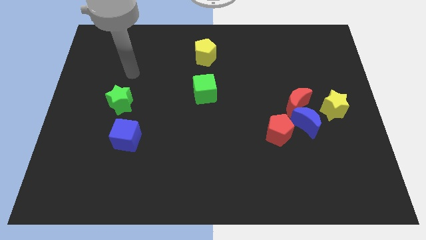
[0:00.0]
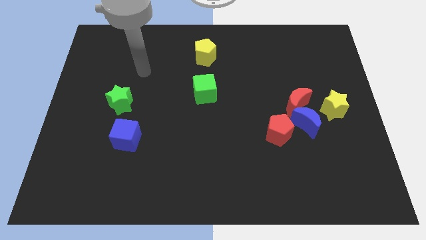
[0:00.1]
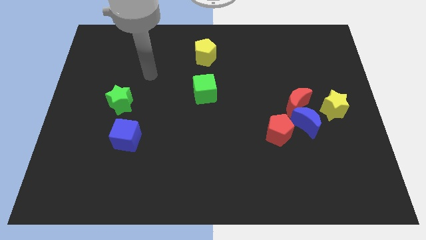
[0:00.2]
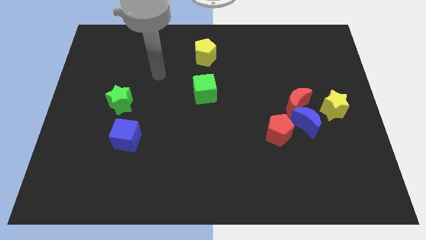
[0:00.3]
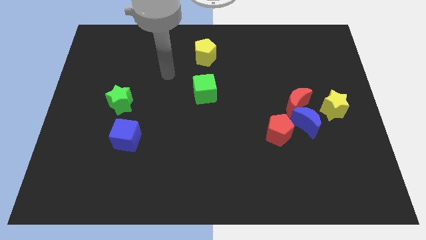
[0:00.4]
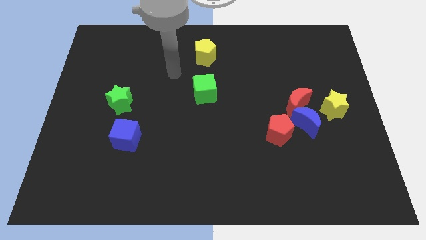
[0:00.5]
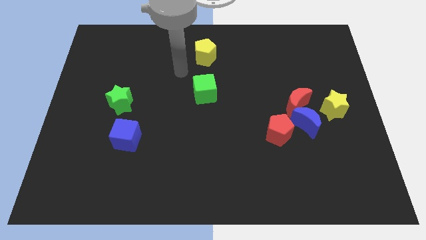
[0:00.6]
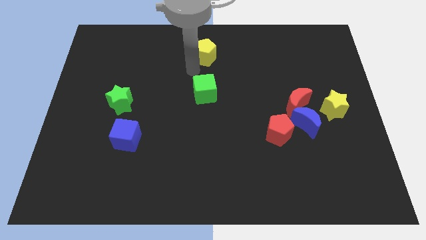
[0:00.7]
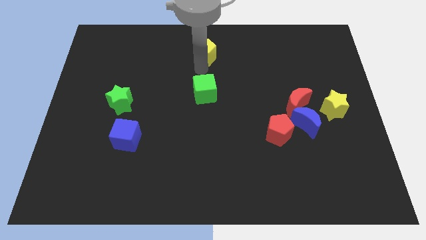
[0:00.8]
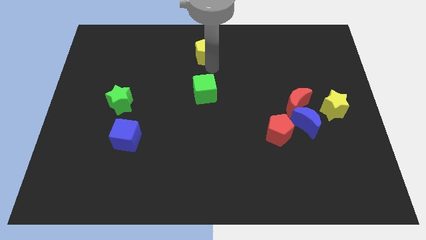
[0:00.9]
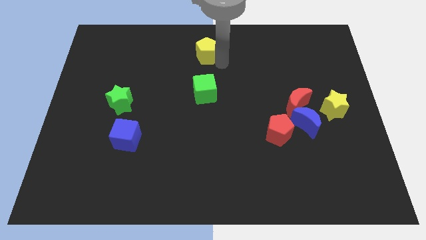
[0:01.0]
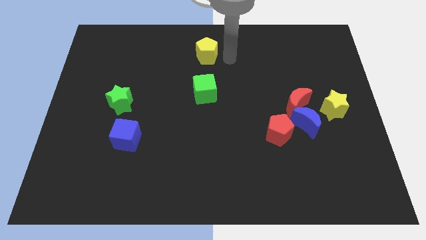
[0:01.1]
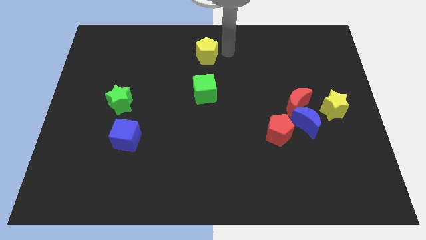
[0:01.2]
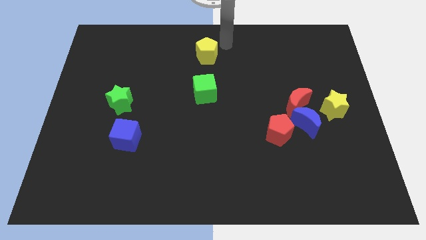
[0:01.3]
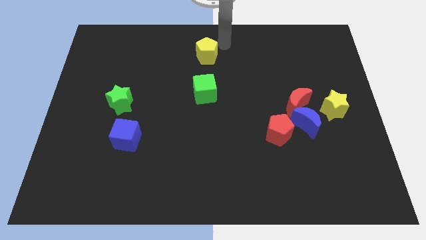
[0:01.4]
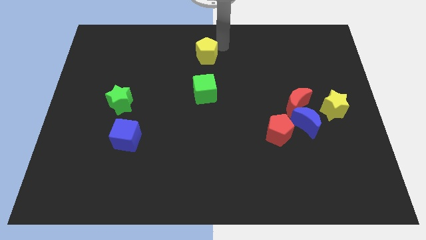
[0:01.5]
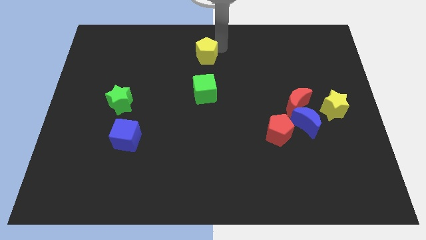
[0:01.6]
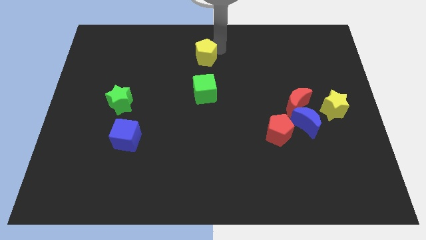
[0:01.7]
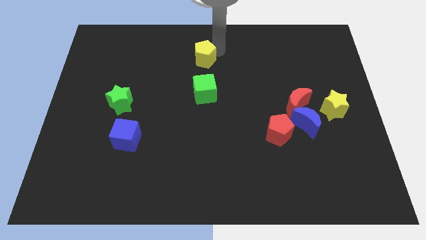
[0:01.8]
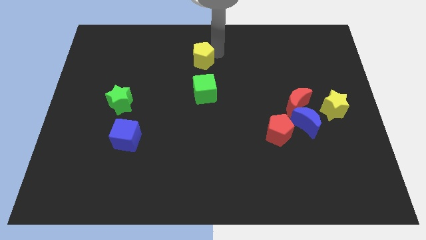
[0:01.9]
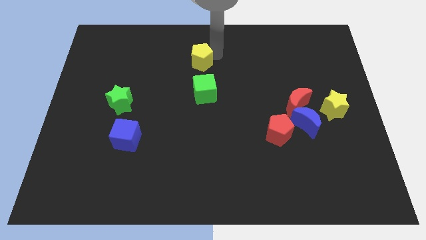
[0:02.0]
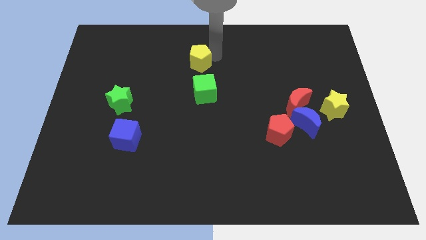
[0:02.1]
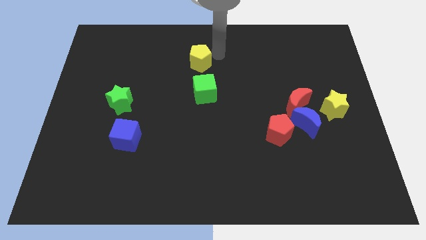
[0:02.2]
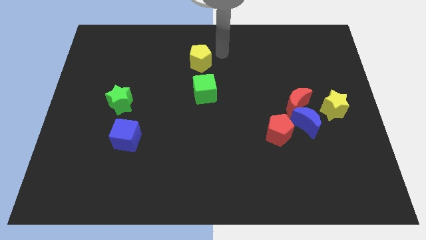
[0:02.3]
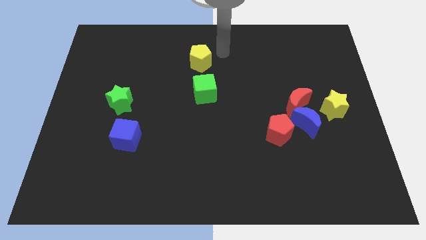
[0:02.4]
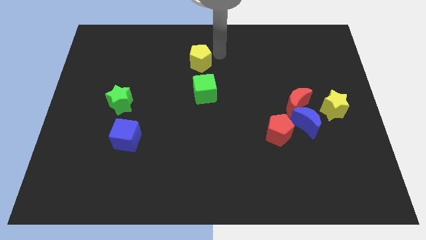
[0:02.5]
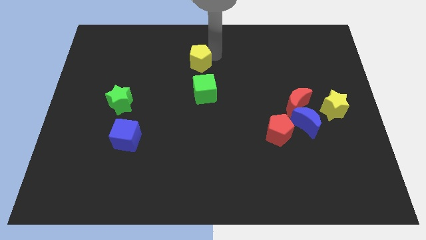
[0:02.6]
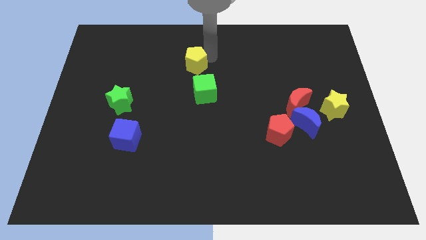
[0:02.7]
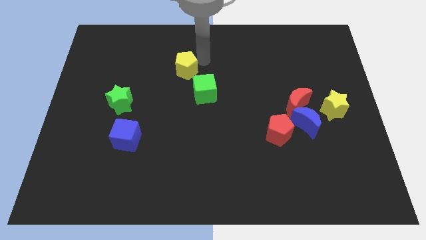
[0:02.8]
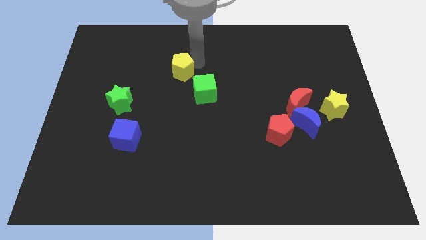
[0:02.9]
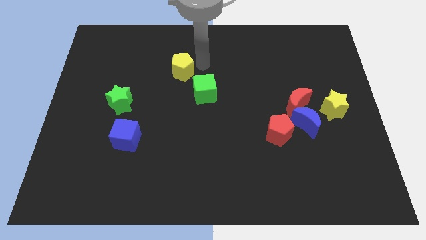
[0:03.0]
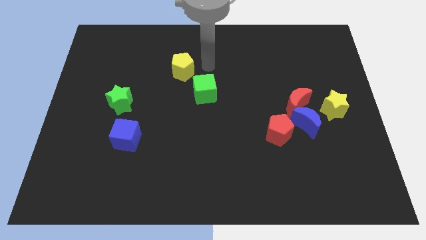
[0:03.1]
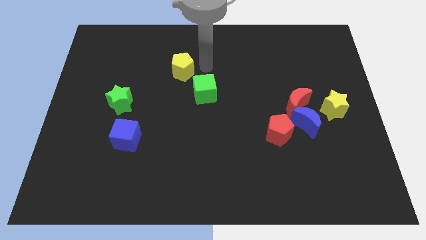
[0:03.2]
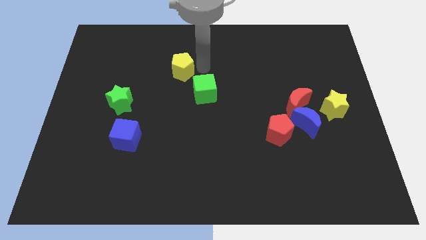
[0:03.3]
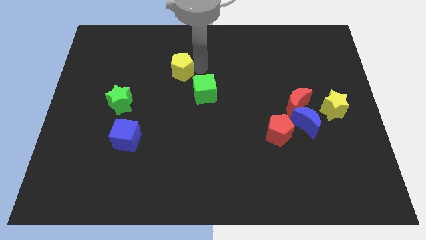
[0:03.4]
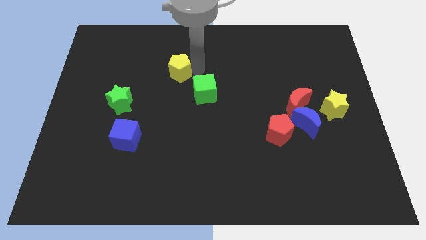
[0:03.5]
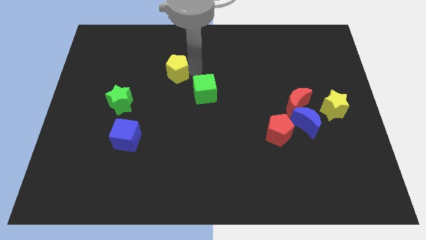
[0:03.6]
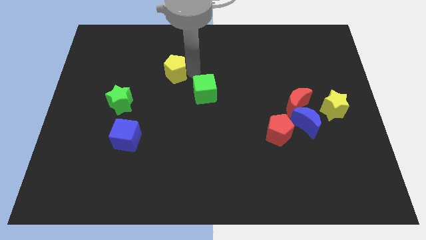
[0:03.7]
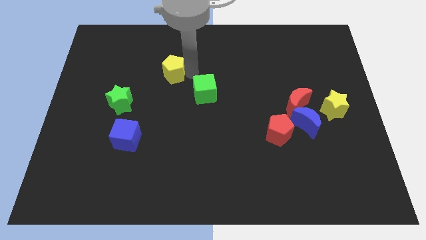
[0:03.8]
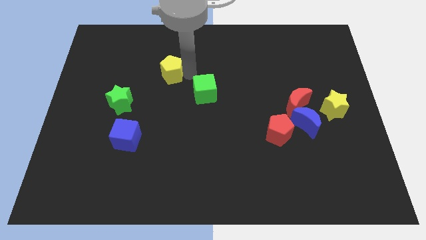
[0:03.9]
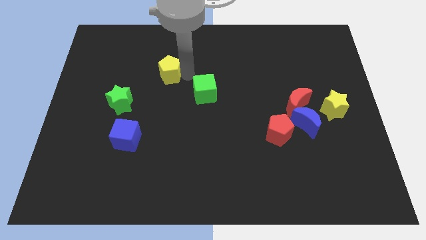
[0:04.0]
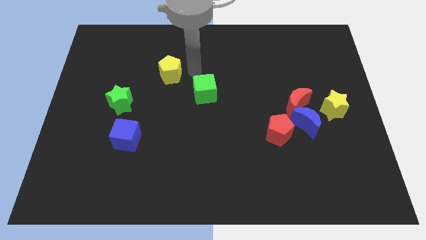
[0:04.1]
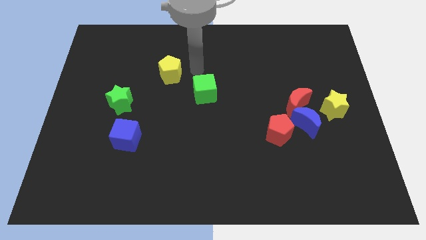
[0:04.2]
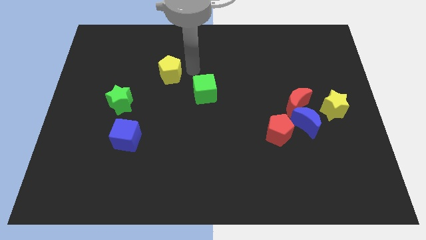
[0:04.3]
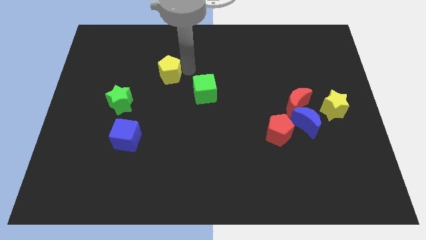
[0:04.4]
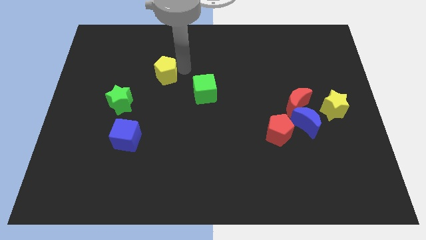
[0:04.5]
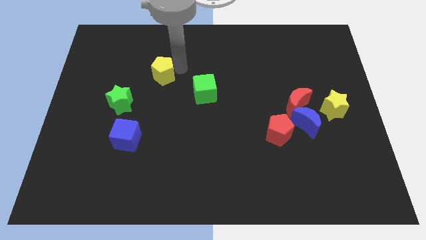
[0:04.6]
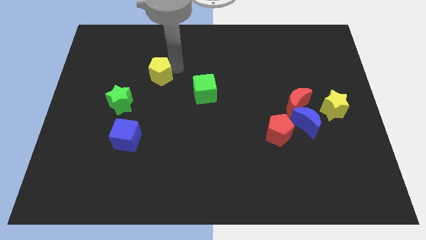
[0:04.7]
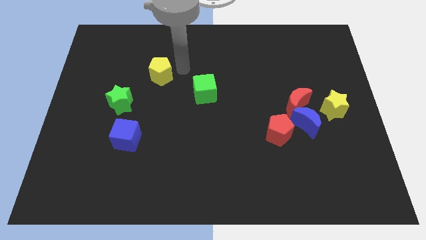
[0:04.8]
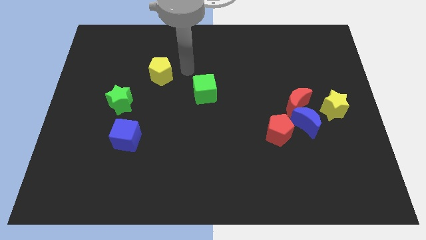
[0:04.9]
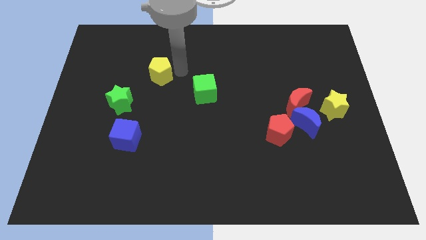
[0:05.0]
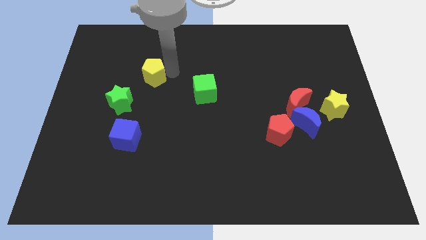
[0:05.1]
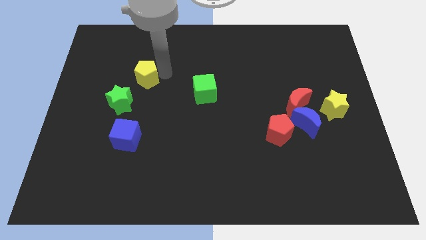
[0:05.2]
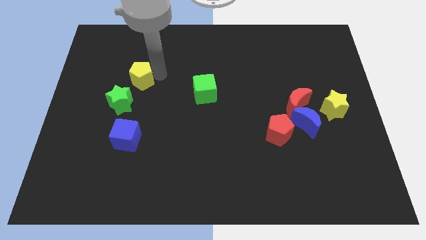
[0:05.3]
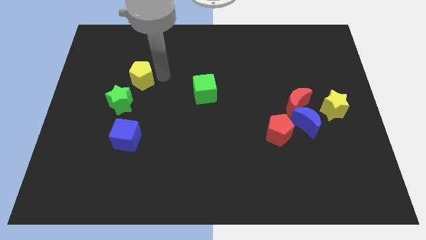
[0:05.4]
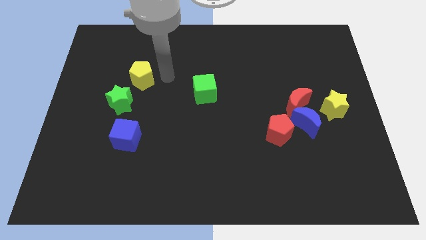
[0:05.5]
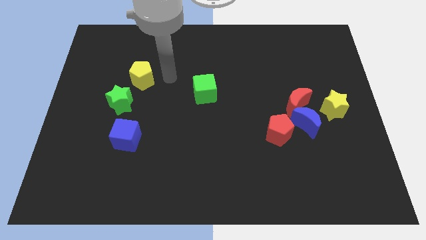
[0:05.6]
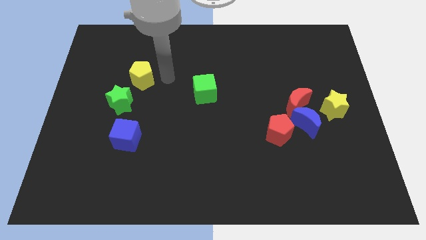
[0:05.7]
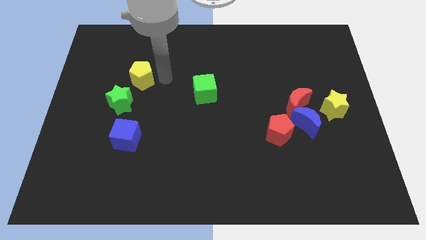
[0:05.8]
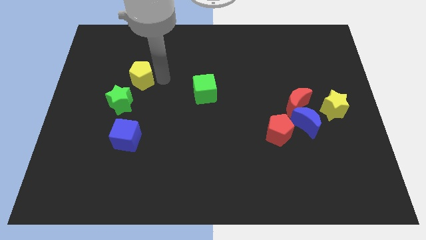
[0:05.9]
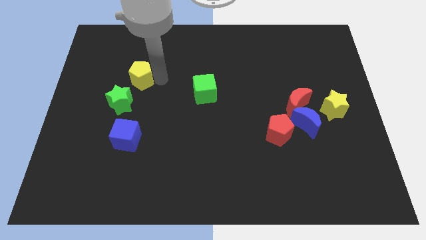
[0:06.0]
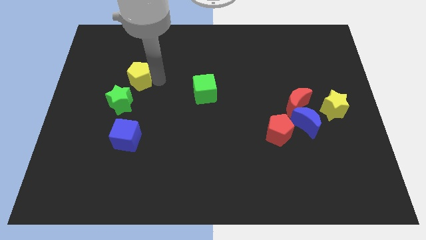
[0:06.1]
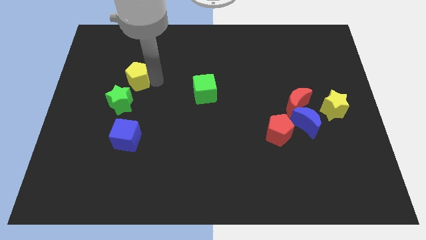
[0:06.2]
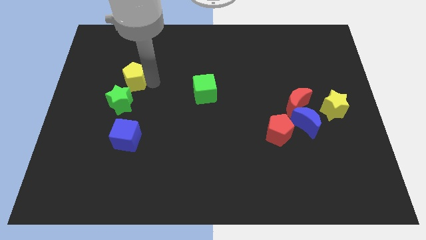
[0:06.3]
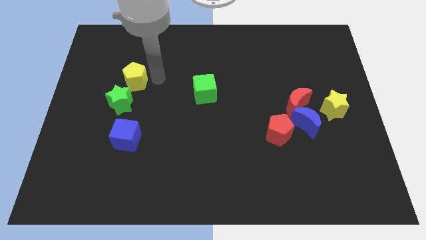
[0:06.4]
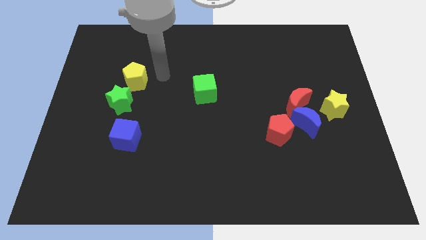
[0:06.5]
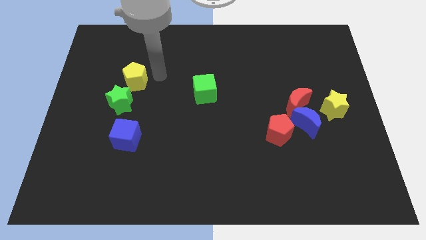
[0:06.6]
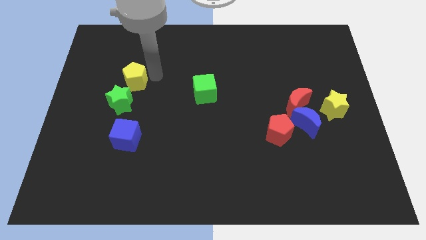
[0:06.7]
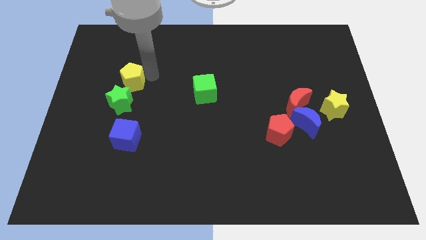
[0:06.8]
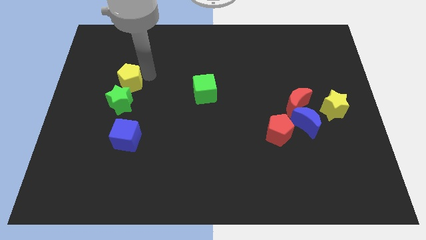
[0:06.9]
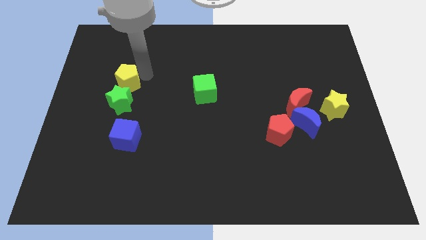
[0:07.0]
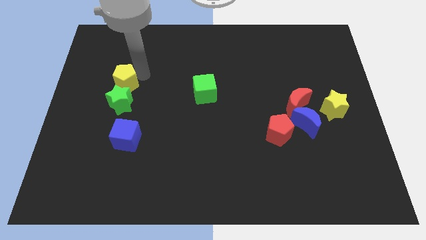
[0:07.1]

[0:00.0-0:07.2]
slide the yellow pentagon to the top left of the green star

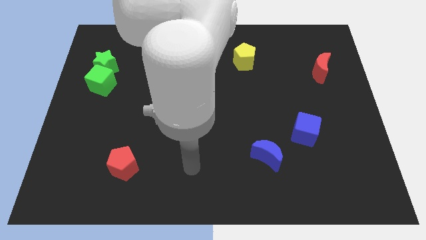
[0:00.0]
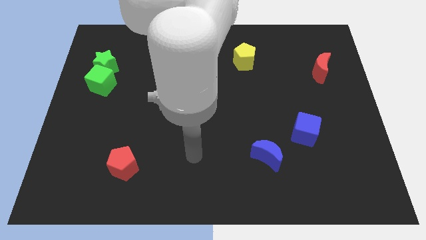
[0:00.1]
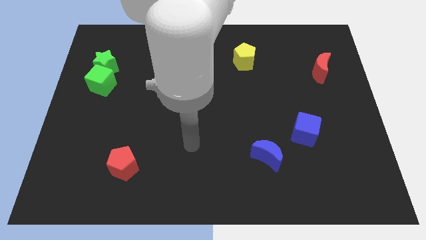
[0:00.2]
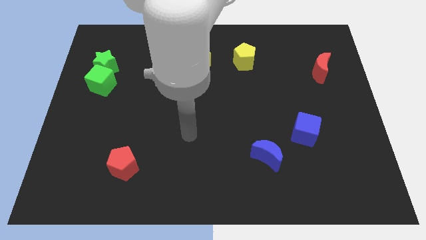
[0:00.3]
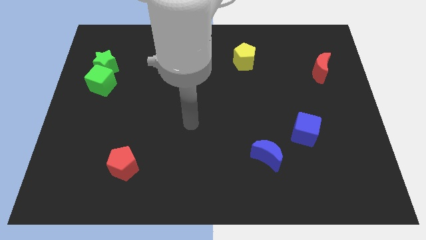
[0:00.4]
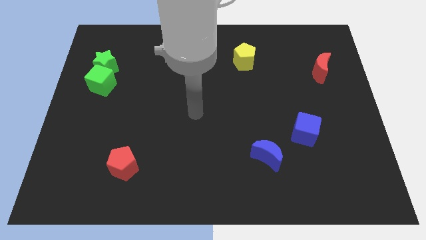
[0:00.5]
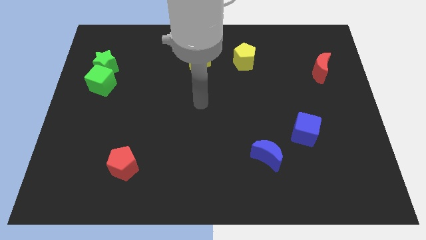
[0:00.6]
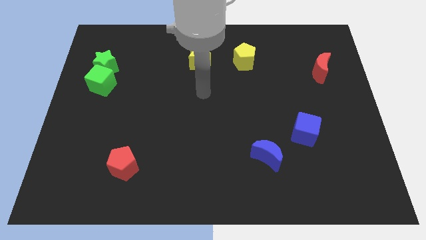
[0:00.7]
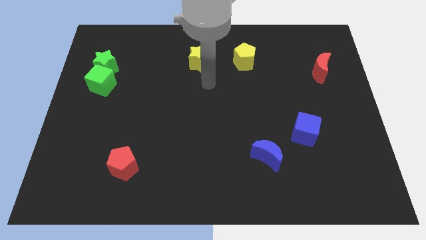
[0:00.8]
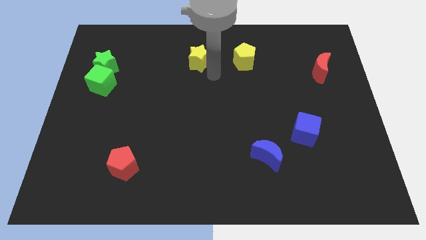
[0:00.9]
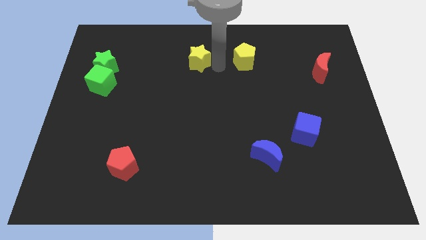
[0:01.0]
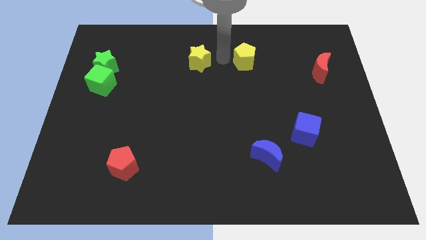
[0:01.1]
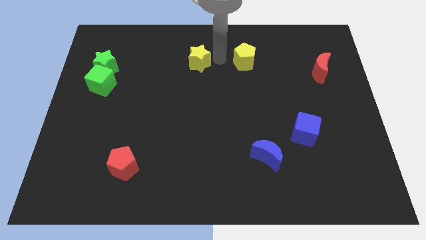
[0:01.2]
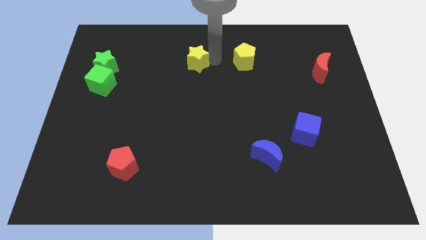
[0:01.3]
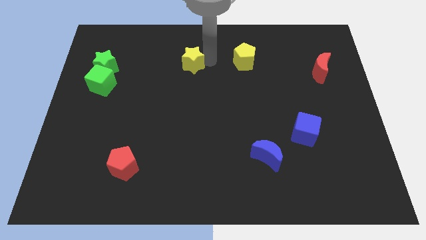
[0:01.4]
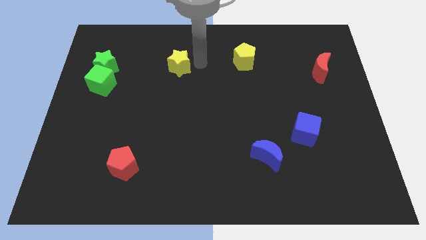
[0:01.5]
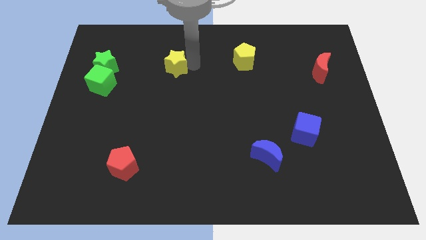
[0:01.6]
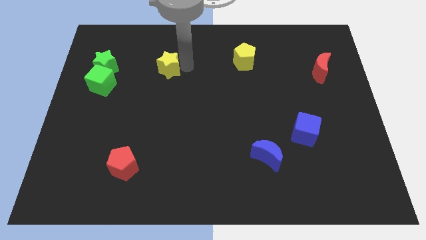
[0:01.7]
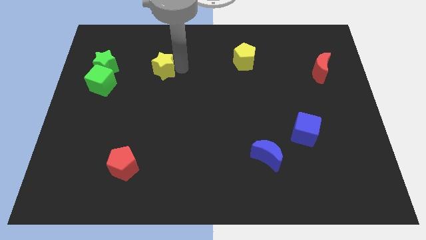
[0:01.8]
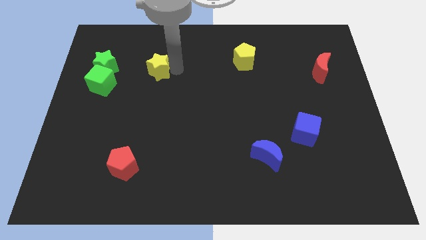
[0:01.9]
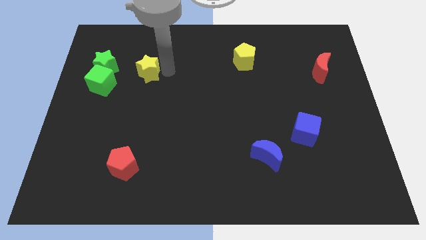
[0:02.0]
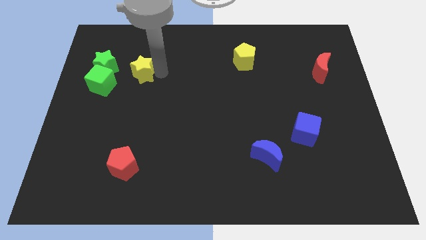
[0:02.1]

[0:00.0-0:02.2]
put the yellow star diagonally up and to the right of the green cube
